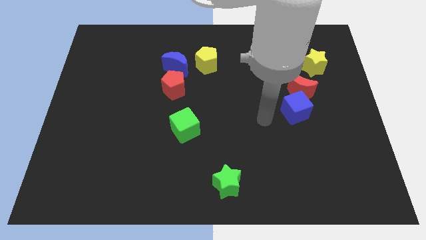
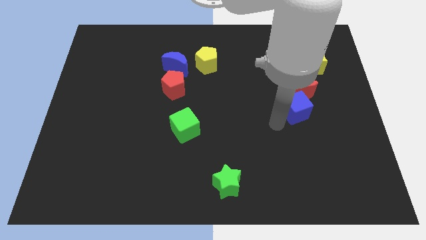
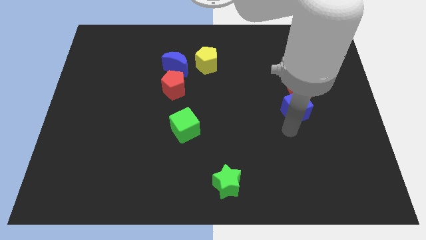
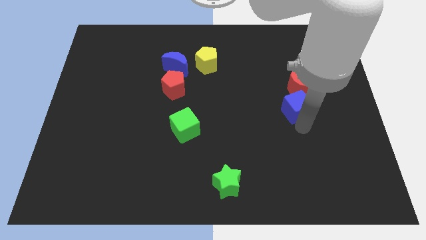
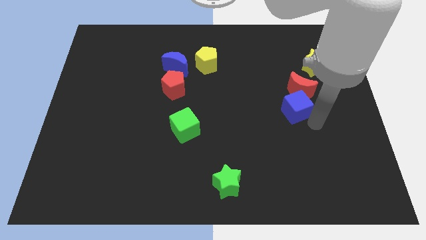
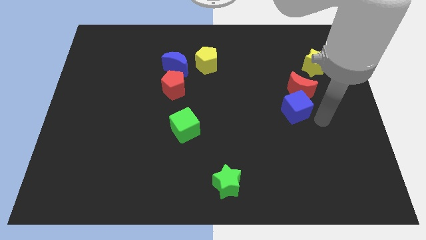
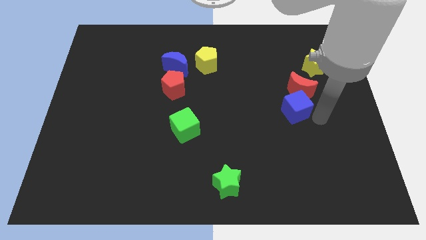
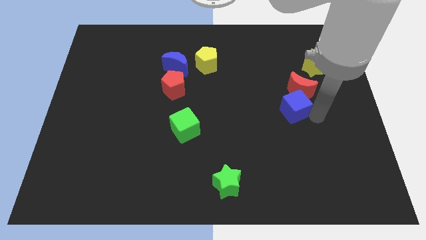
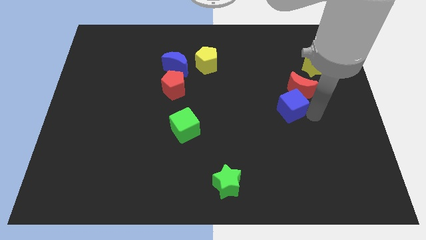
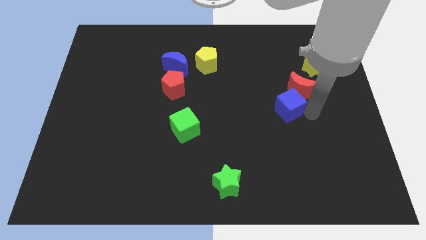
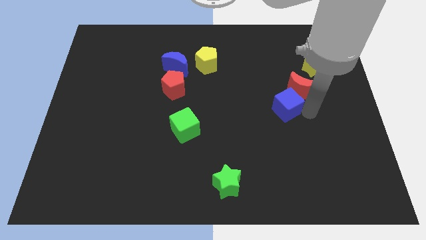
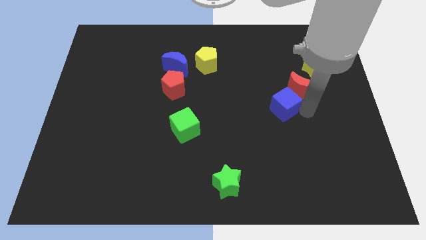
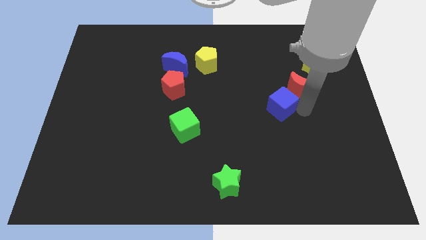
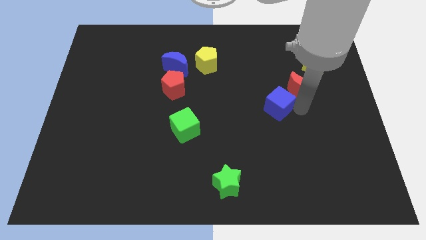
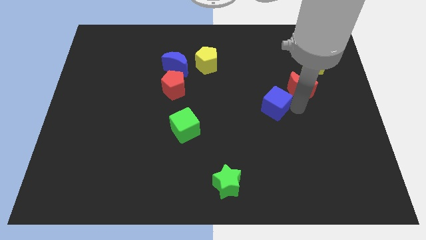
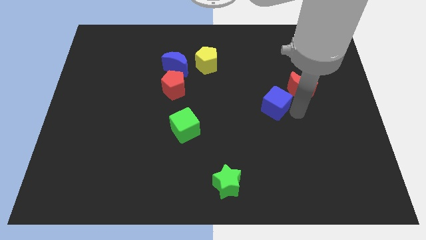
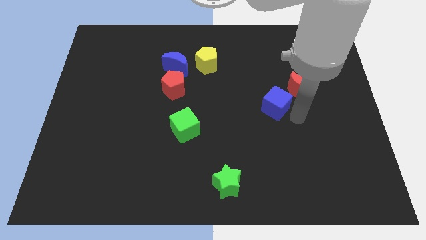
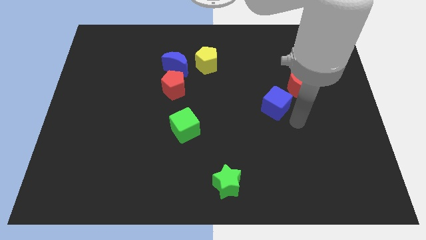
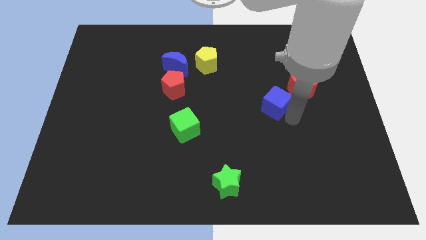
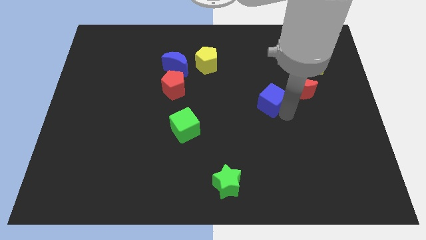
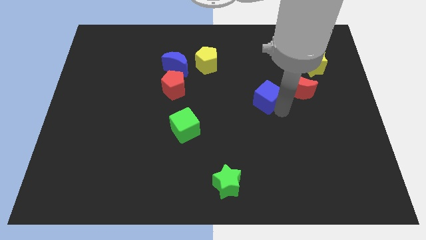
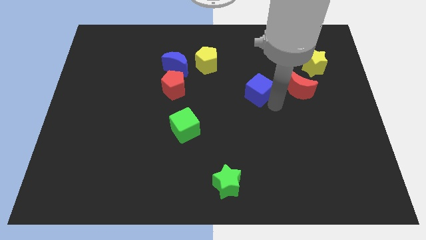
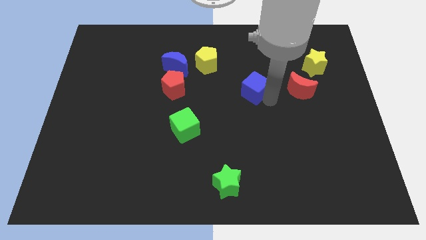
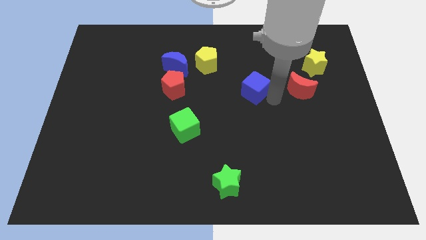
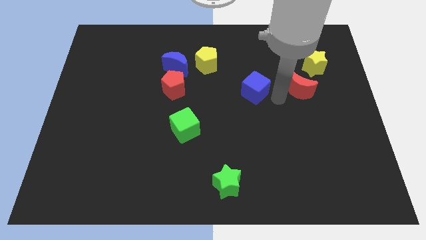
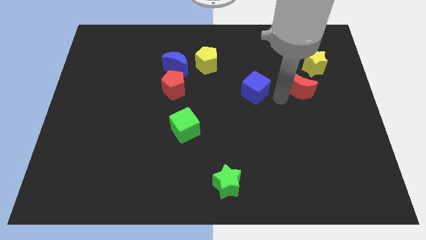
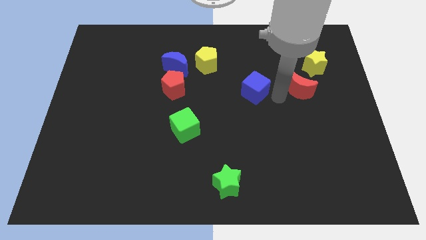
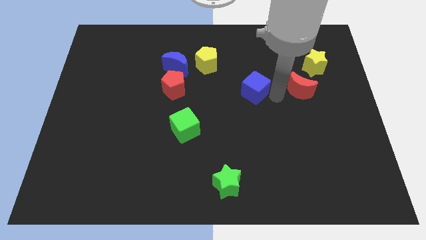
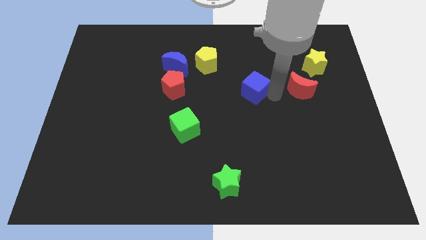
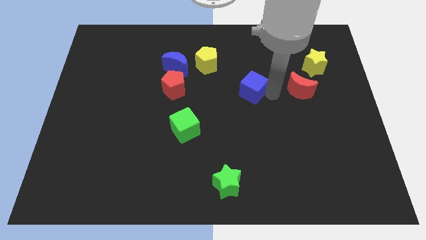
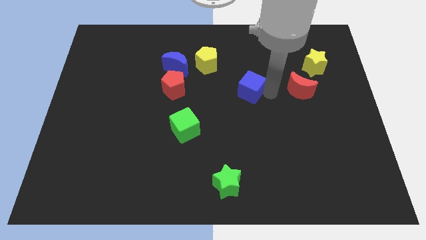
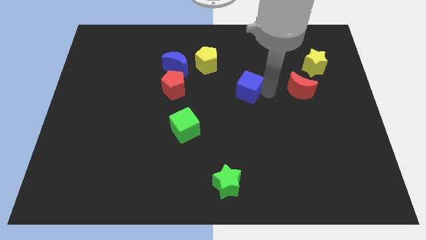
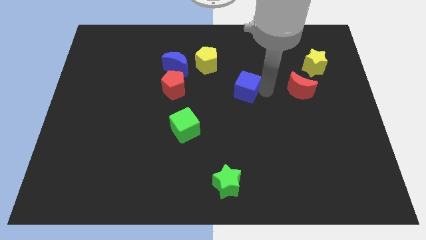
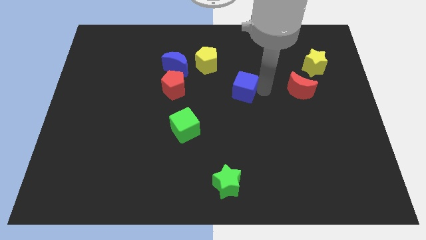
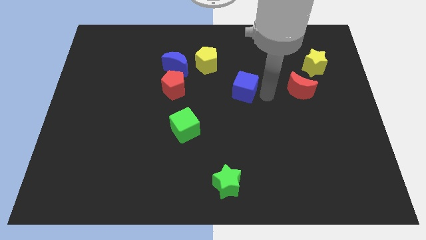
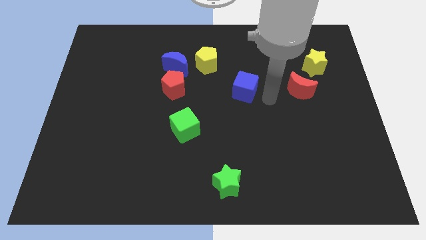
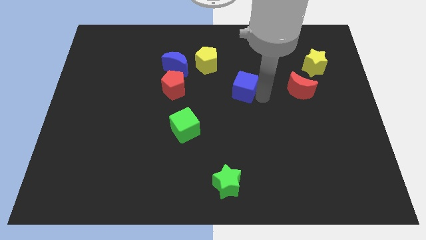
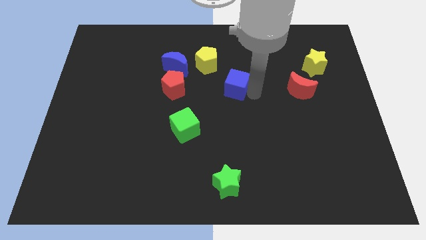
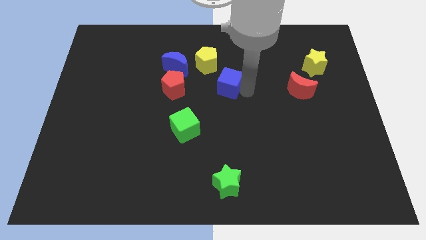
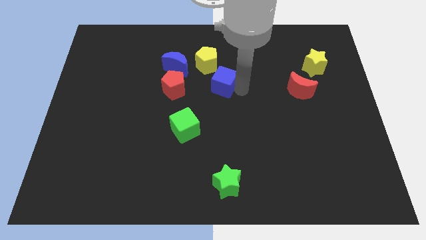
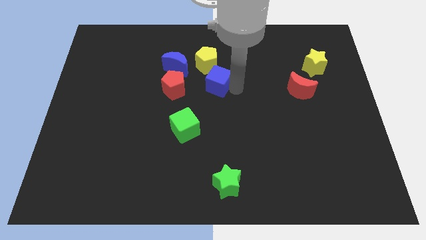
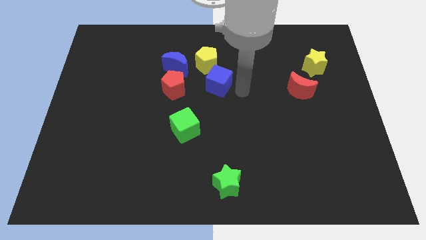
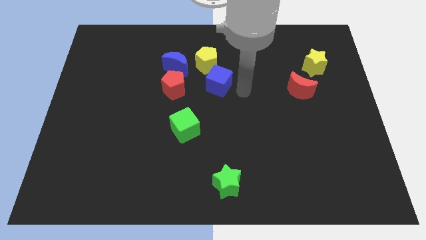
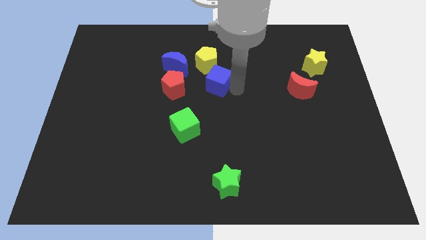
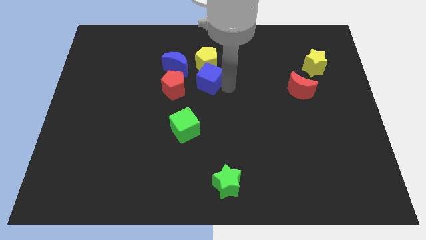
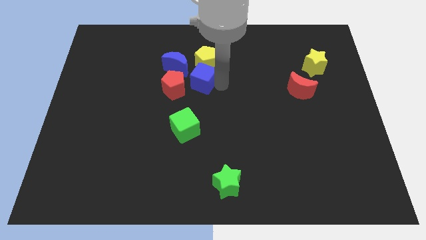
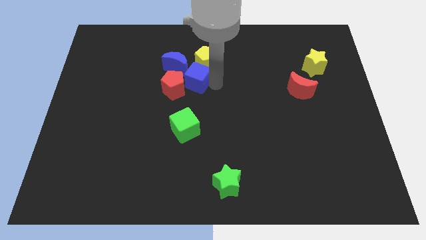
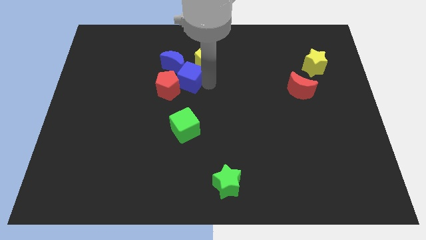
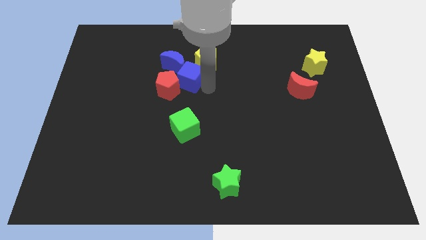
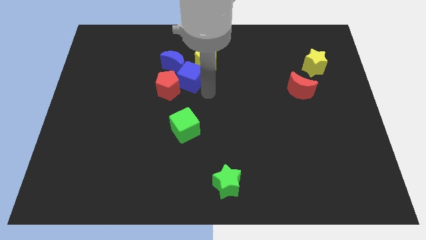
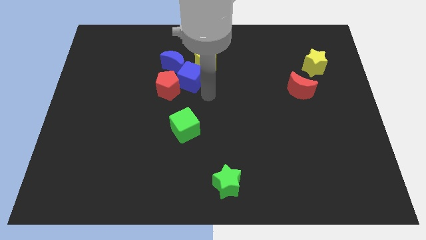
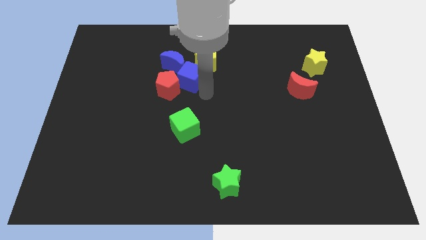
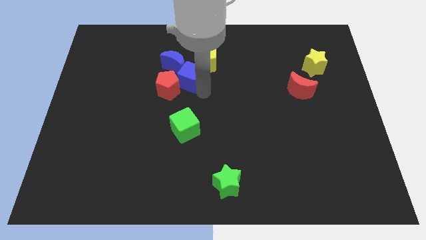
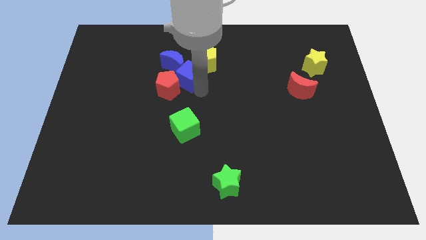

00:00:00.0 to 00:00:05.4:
push the blue cube towards the blue moon

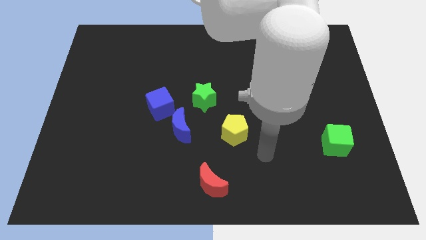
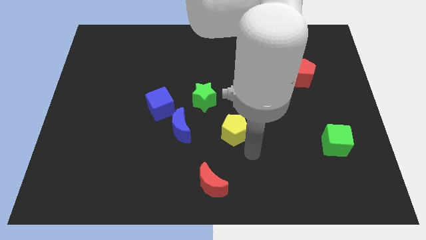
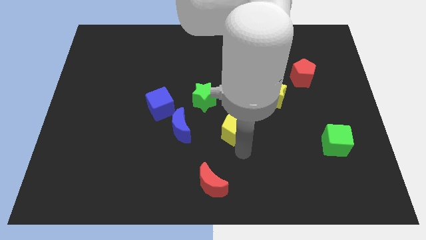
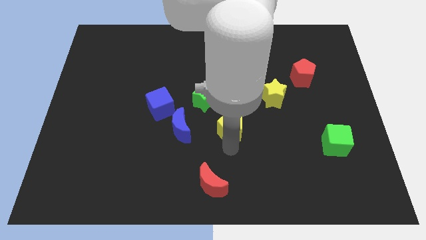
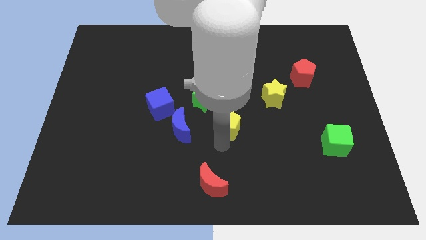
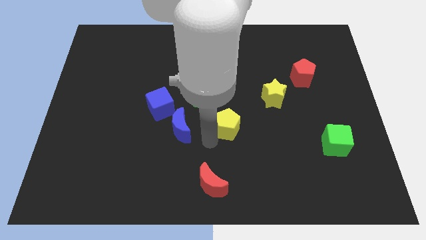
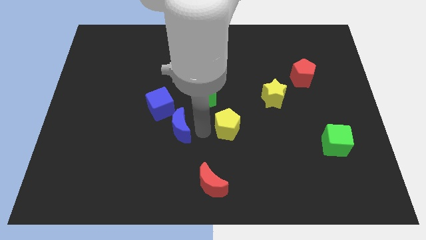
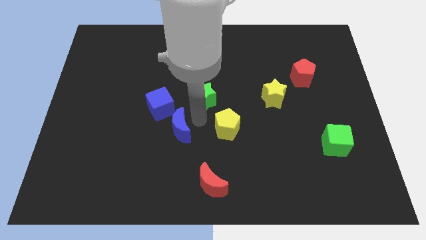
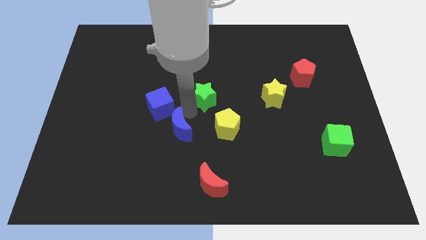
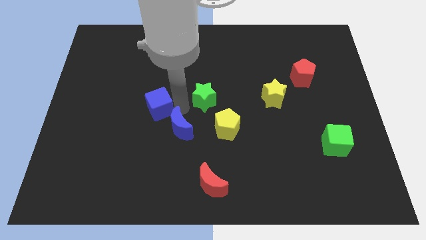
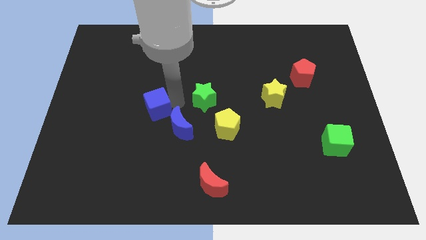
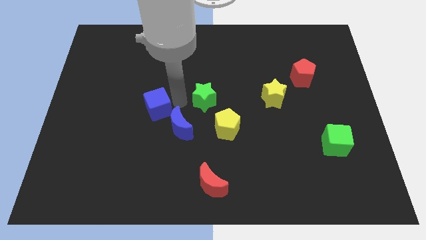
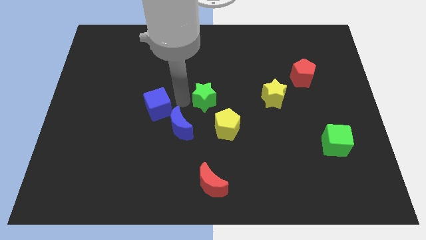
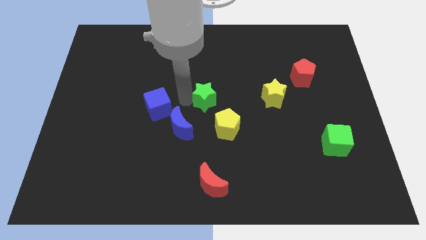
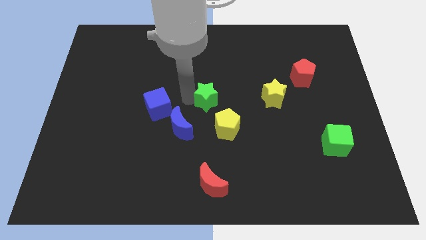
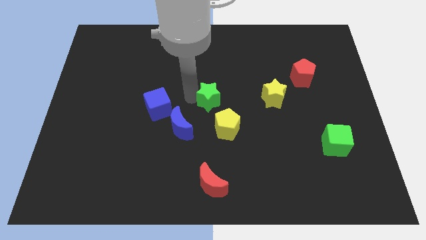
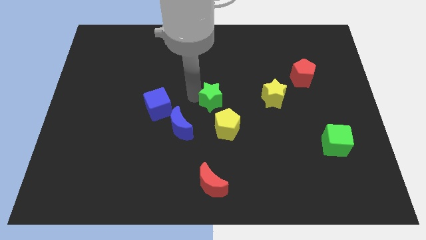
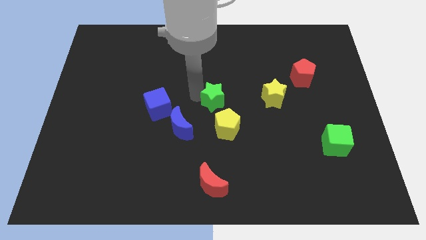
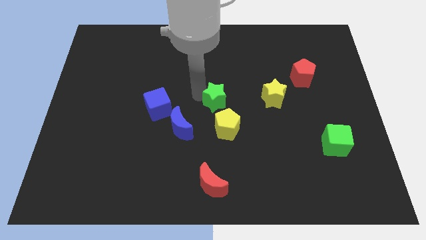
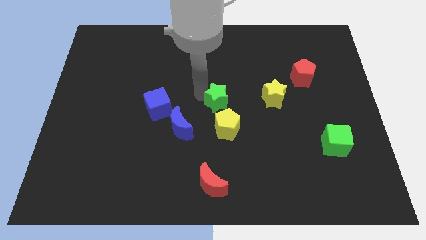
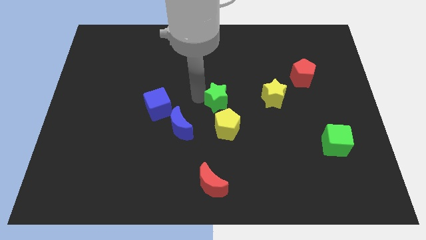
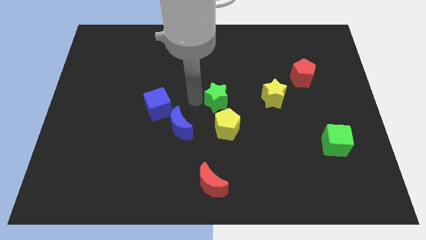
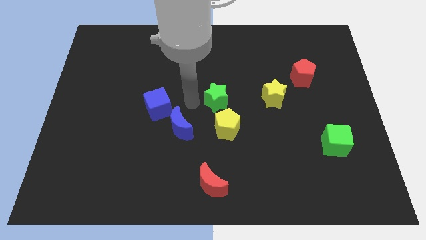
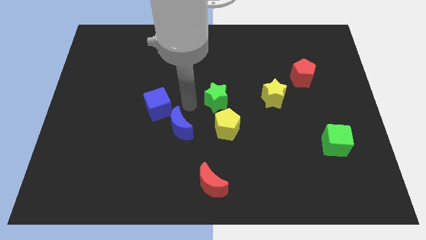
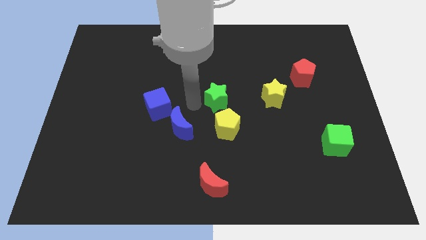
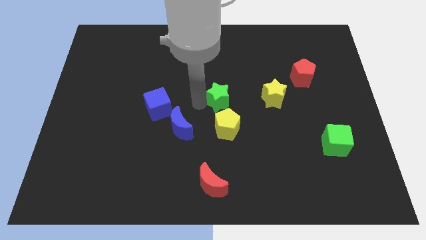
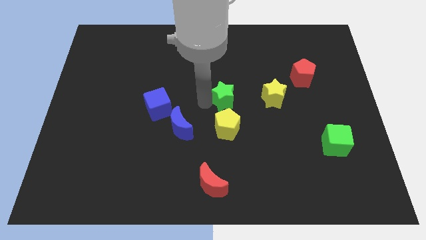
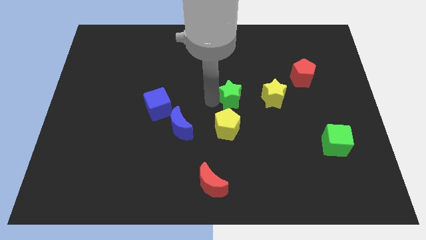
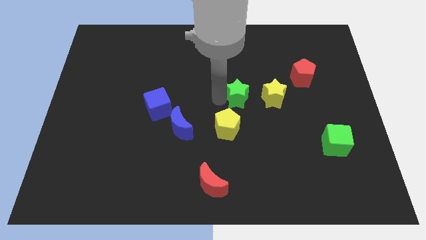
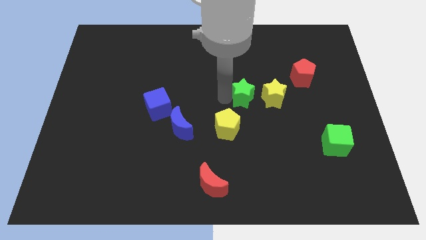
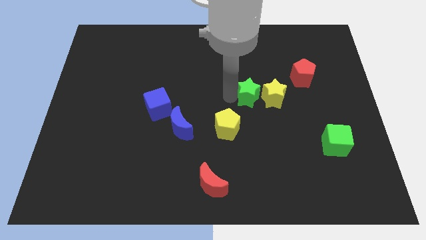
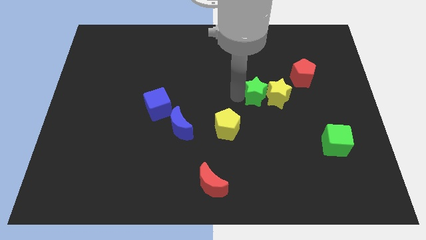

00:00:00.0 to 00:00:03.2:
push the green star next to the yellow star
